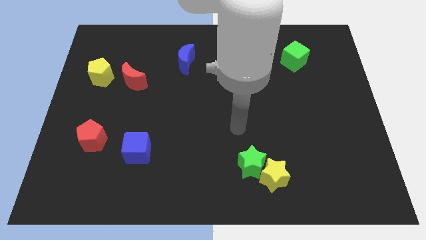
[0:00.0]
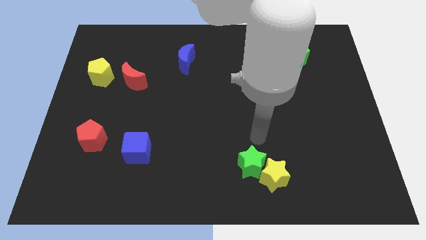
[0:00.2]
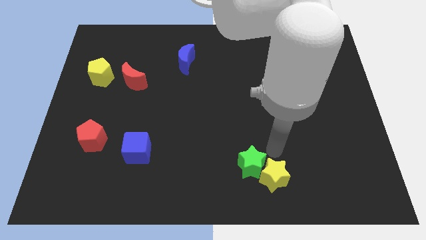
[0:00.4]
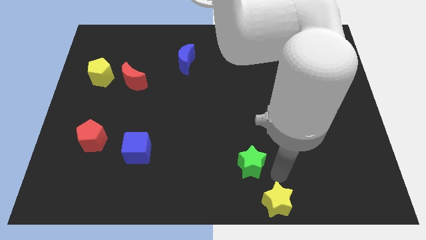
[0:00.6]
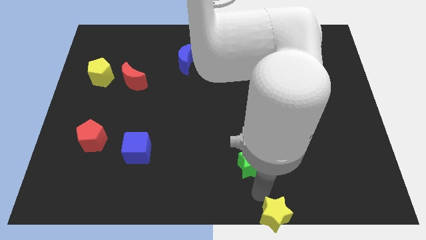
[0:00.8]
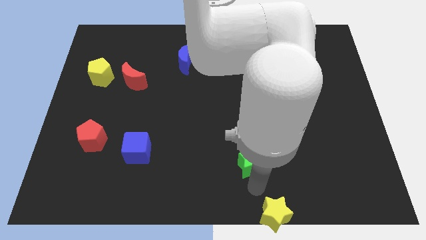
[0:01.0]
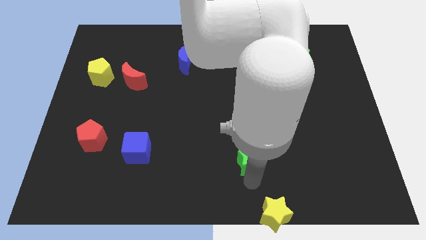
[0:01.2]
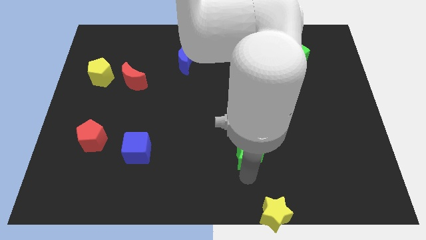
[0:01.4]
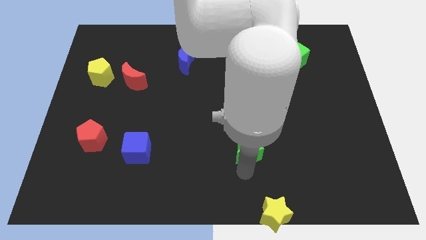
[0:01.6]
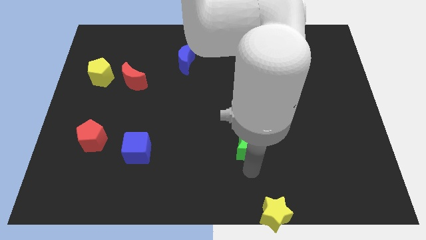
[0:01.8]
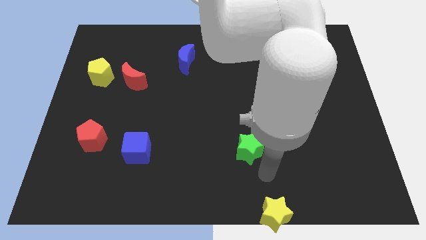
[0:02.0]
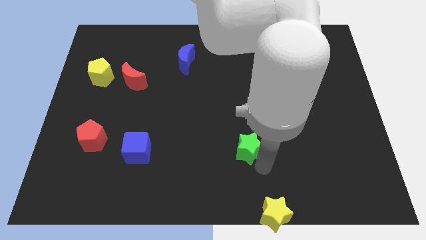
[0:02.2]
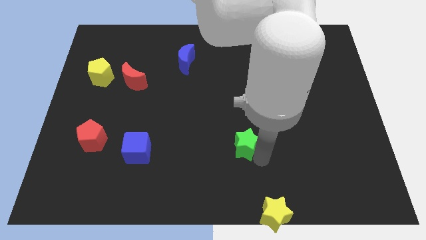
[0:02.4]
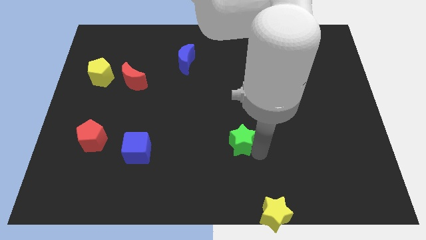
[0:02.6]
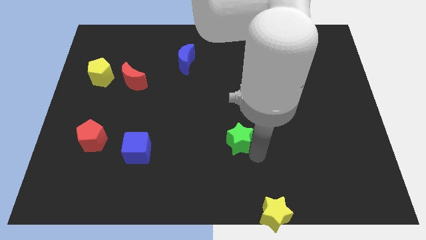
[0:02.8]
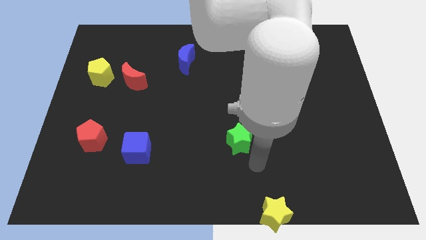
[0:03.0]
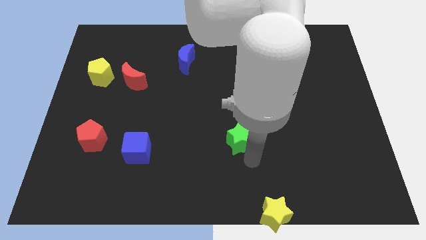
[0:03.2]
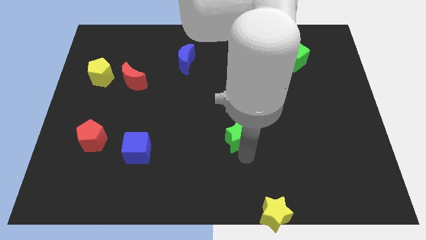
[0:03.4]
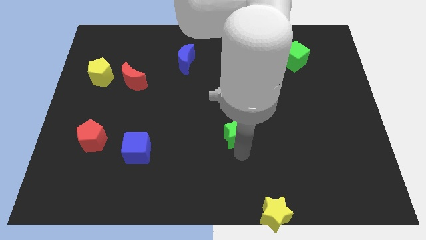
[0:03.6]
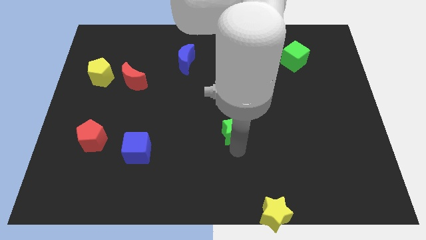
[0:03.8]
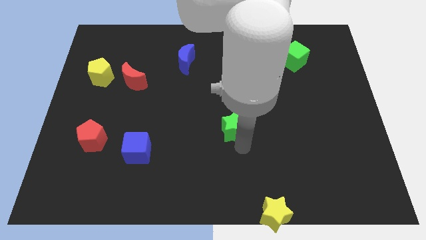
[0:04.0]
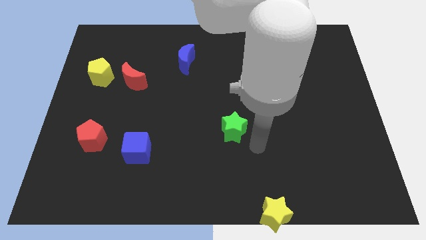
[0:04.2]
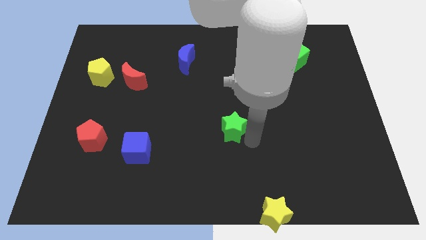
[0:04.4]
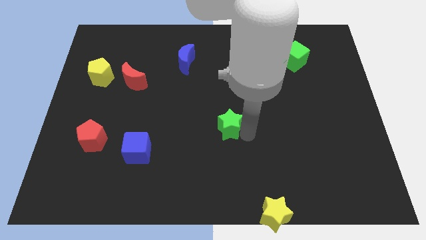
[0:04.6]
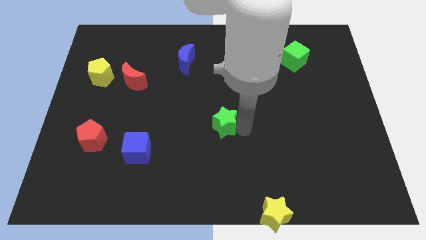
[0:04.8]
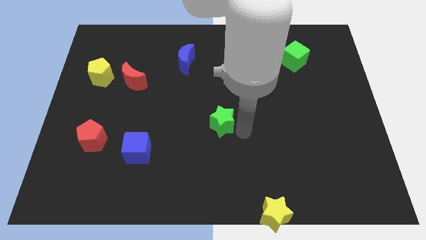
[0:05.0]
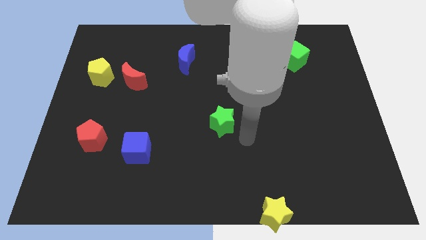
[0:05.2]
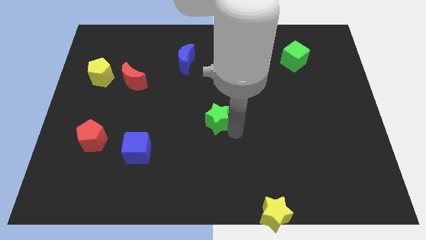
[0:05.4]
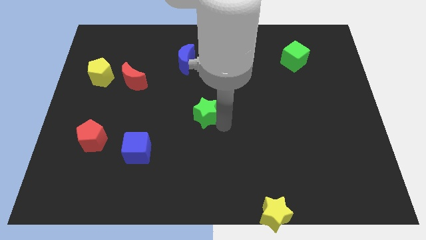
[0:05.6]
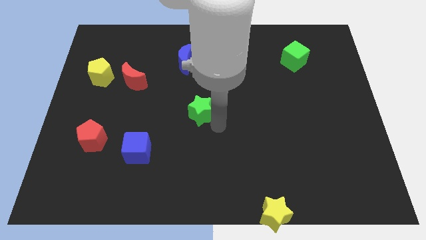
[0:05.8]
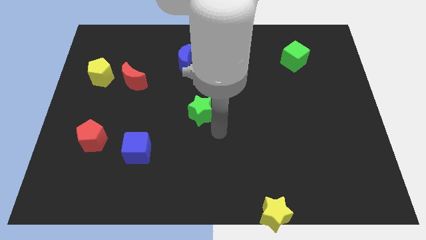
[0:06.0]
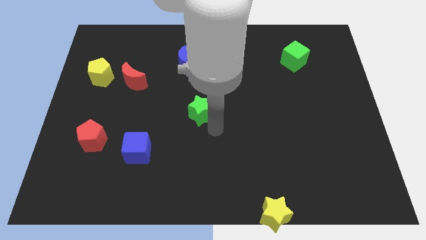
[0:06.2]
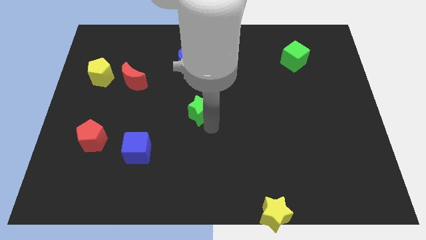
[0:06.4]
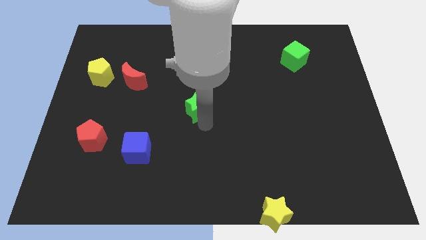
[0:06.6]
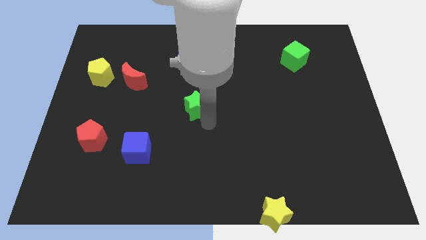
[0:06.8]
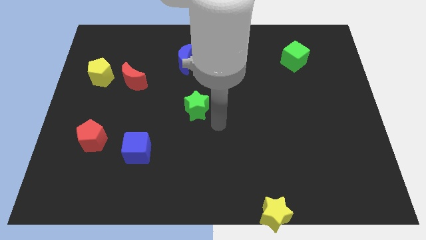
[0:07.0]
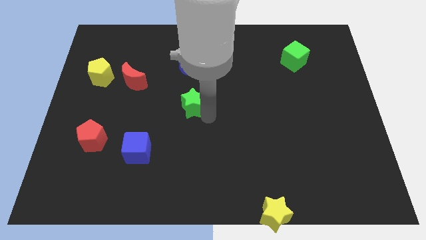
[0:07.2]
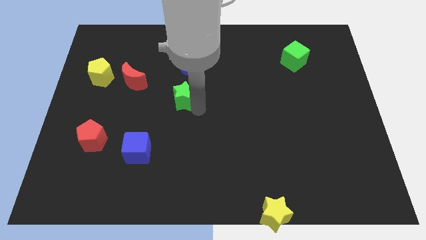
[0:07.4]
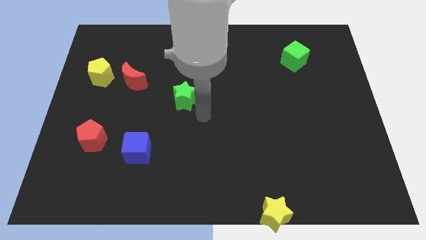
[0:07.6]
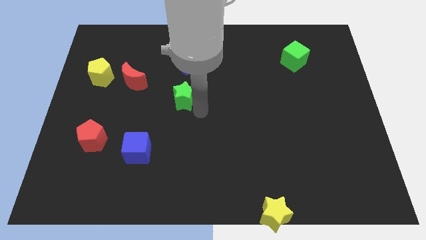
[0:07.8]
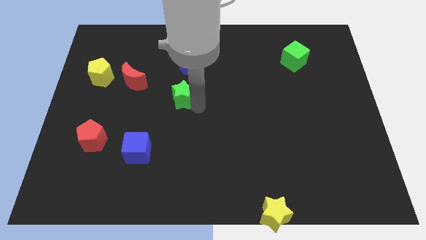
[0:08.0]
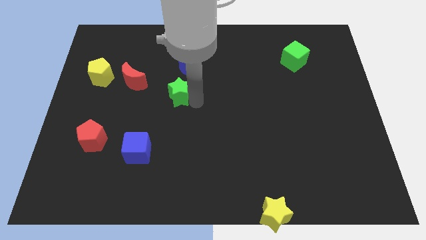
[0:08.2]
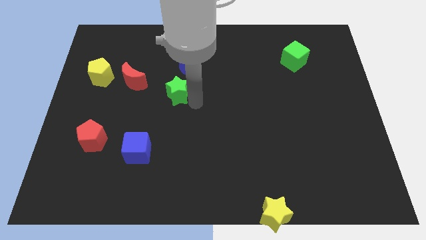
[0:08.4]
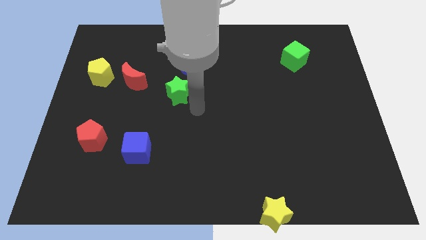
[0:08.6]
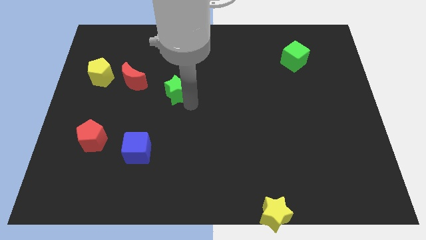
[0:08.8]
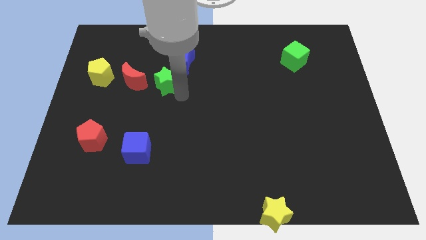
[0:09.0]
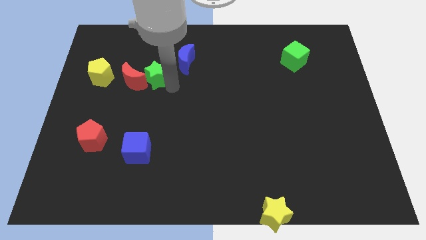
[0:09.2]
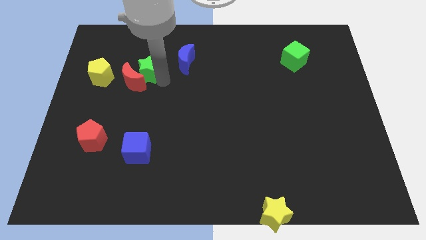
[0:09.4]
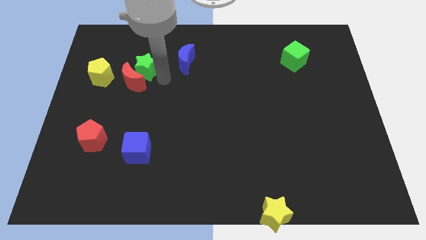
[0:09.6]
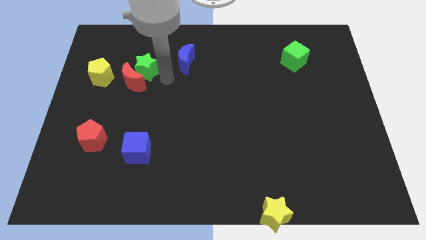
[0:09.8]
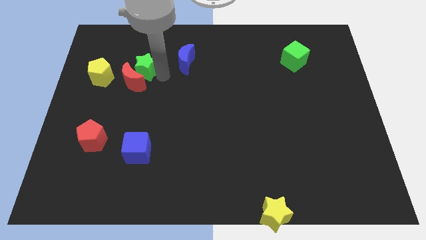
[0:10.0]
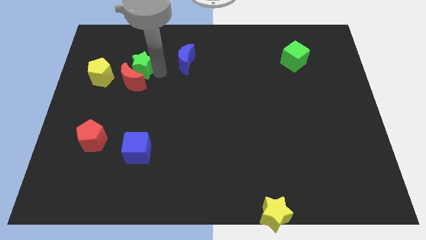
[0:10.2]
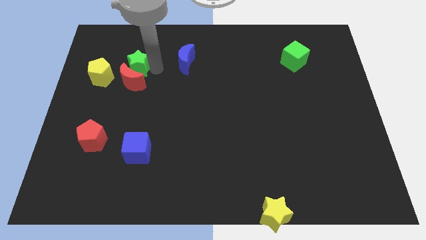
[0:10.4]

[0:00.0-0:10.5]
put the green star to the top right side of the yellow pentagon

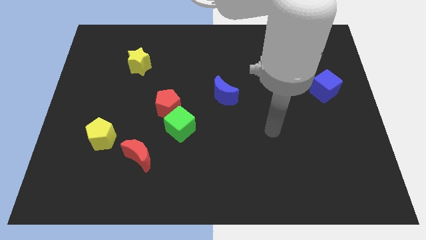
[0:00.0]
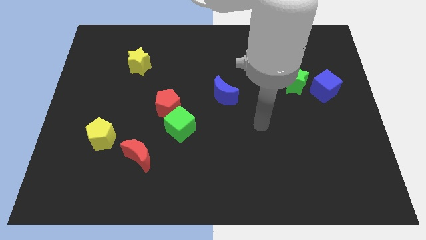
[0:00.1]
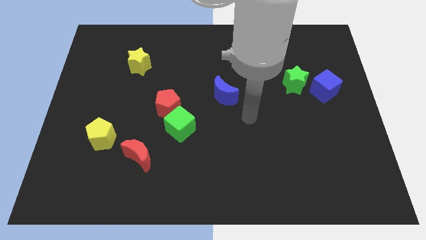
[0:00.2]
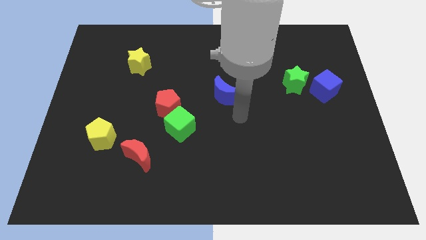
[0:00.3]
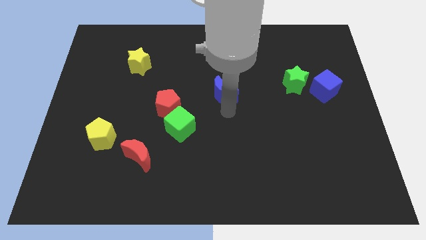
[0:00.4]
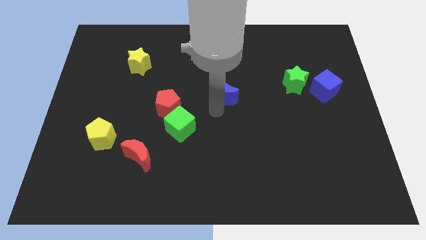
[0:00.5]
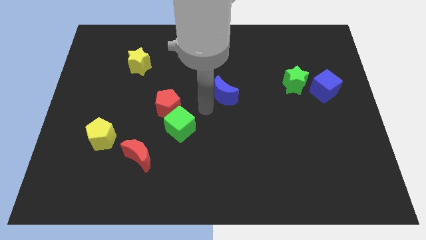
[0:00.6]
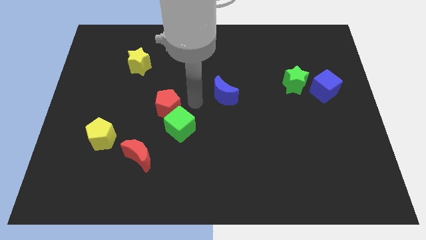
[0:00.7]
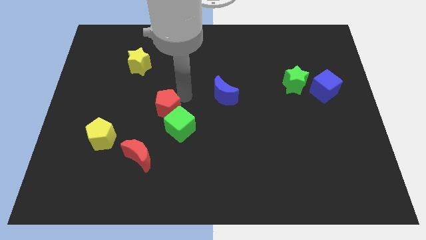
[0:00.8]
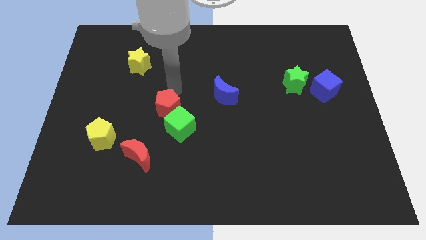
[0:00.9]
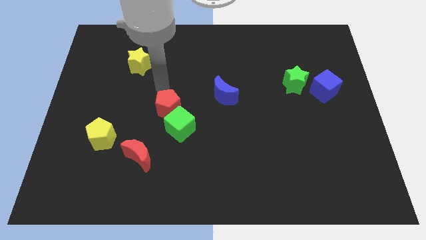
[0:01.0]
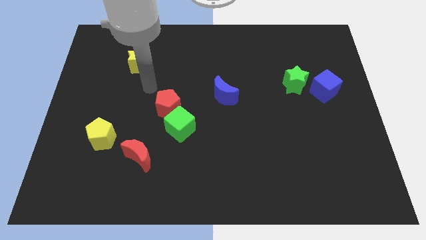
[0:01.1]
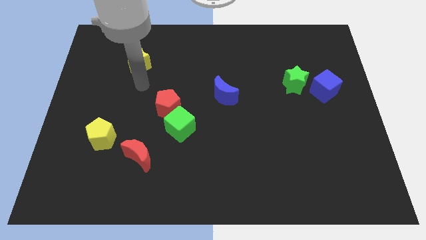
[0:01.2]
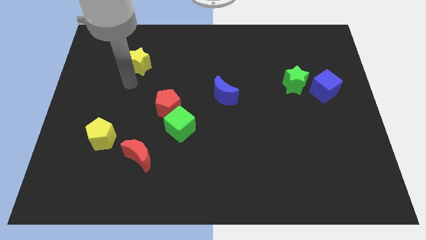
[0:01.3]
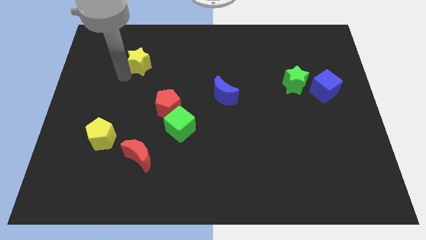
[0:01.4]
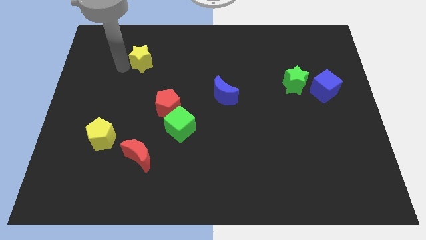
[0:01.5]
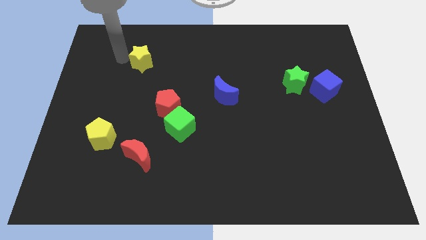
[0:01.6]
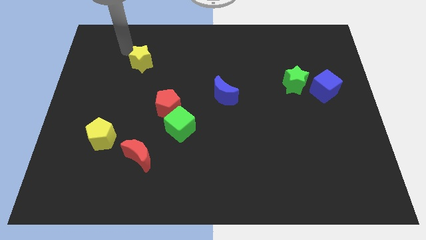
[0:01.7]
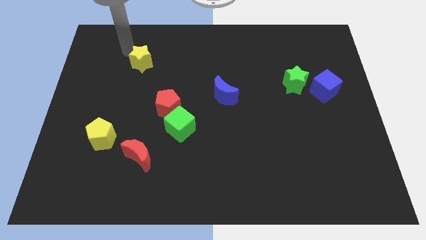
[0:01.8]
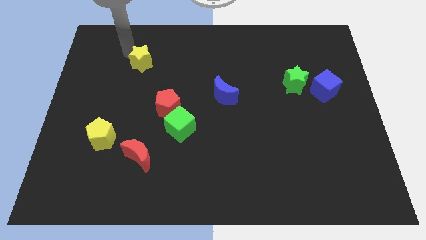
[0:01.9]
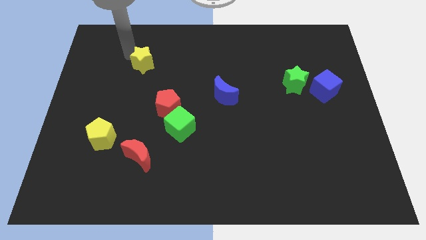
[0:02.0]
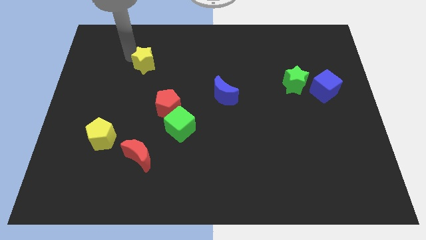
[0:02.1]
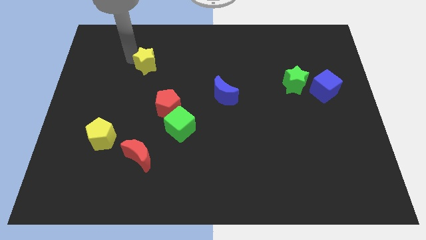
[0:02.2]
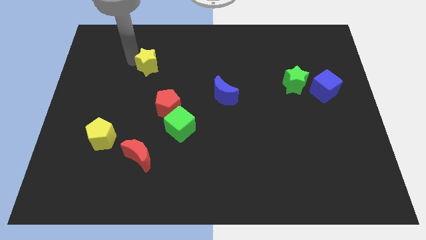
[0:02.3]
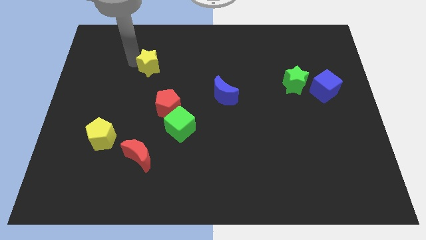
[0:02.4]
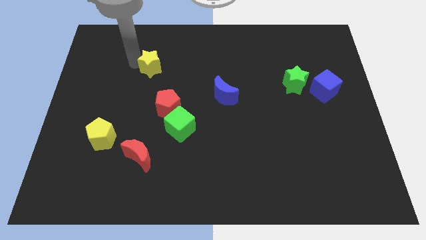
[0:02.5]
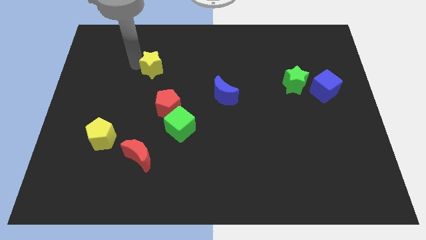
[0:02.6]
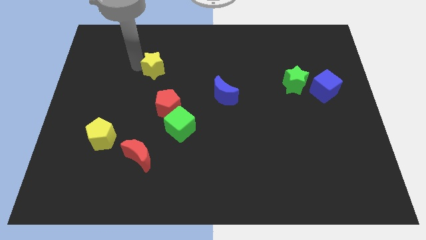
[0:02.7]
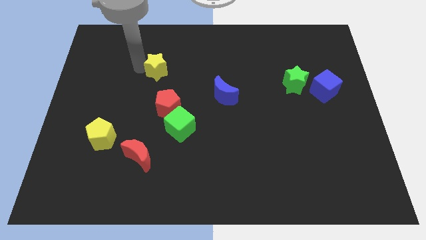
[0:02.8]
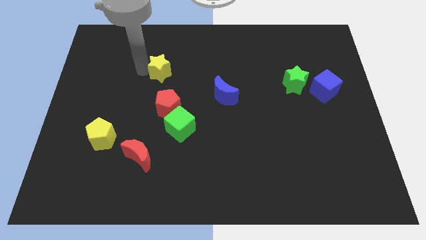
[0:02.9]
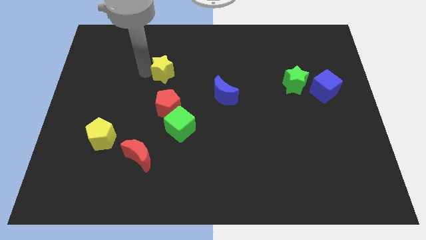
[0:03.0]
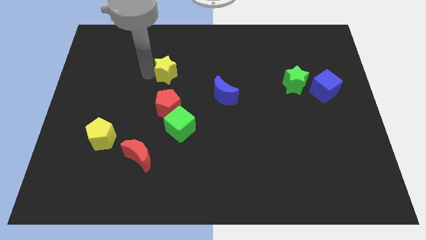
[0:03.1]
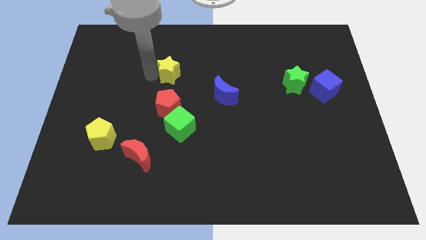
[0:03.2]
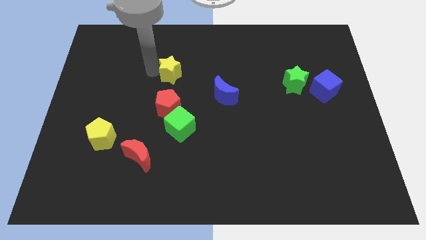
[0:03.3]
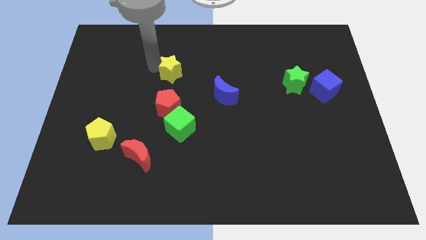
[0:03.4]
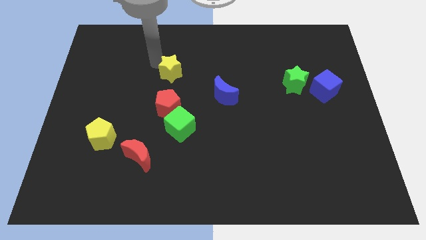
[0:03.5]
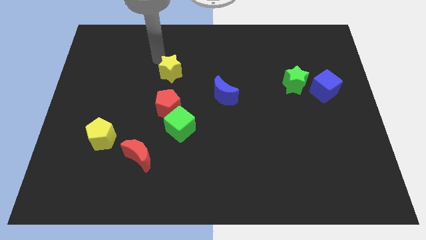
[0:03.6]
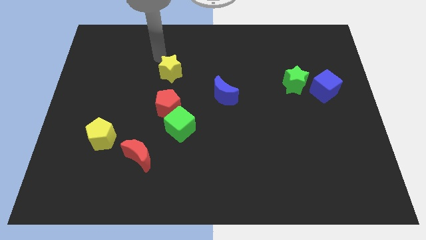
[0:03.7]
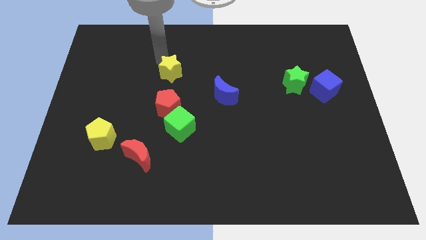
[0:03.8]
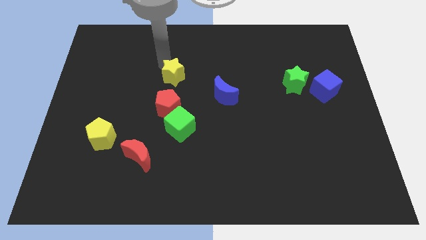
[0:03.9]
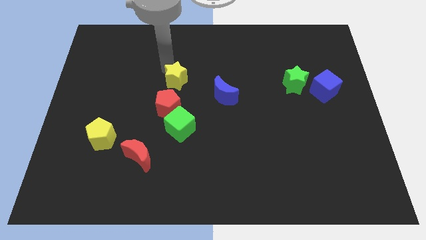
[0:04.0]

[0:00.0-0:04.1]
put the yellow star to the top side of the green cube
